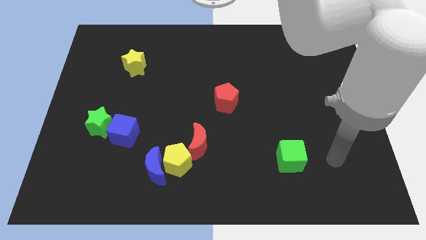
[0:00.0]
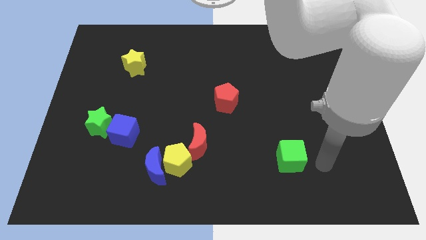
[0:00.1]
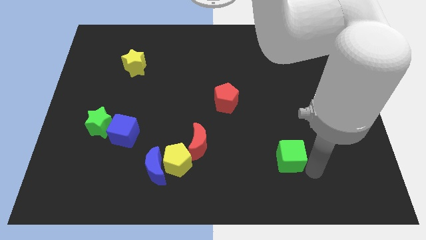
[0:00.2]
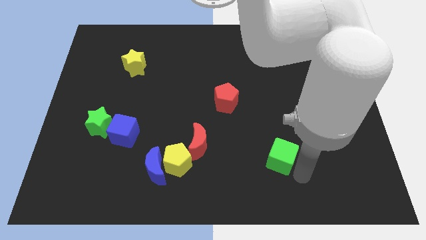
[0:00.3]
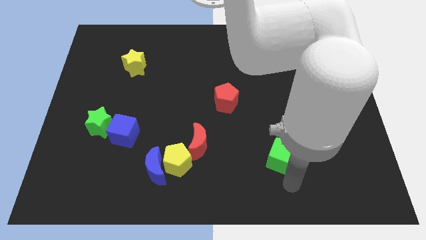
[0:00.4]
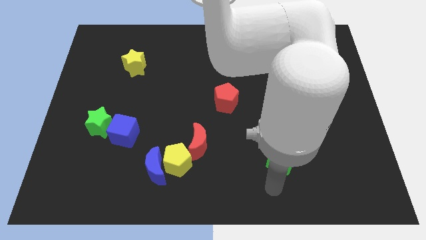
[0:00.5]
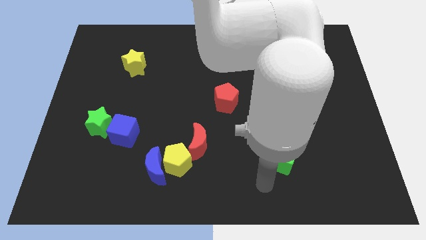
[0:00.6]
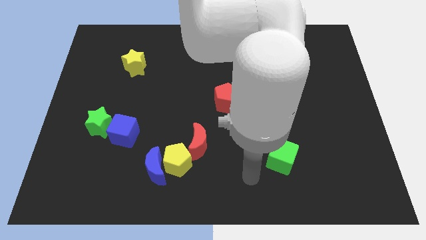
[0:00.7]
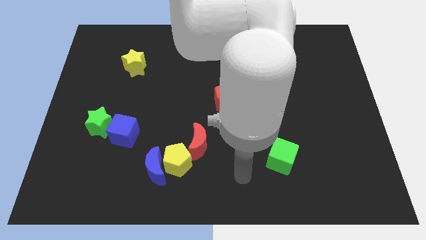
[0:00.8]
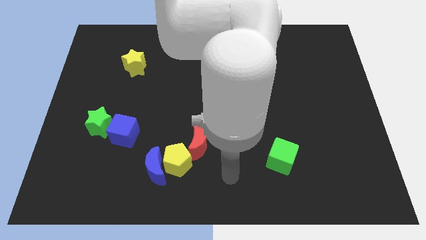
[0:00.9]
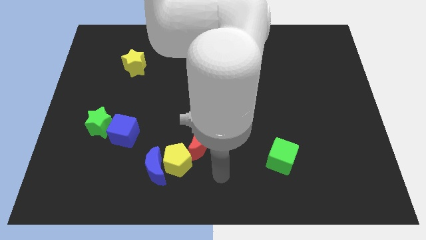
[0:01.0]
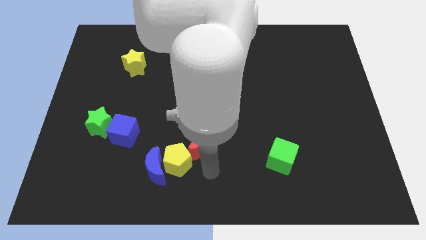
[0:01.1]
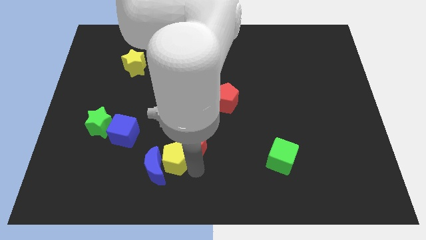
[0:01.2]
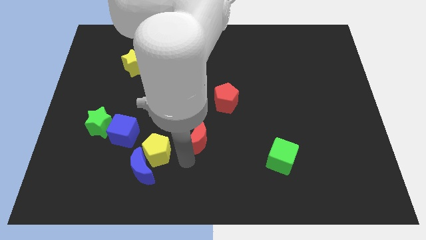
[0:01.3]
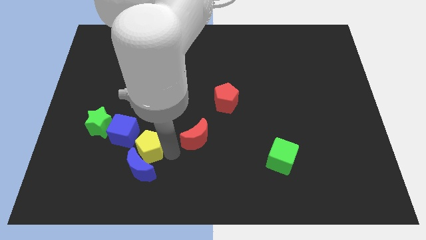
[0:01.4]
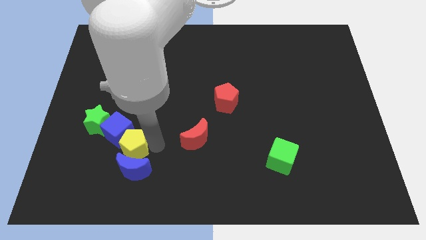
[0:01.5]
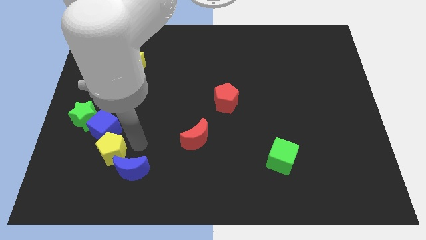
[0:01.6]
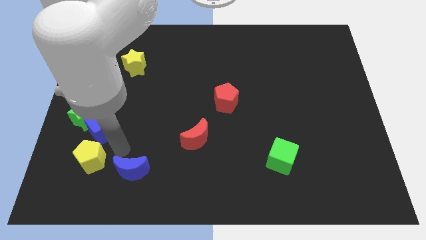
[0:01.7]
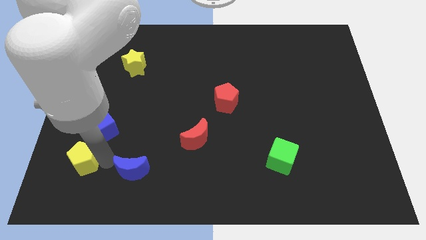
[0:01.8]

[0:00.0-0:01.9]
pull the blue moon apart from the yellow pentagon

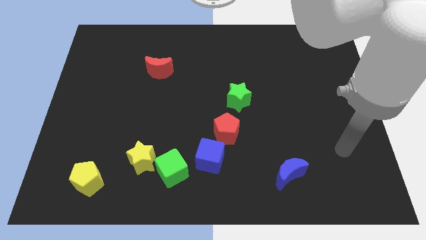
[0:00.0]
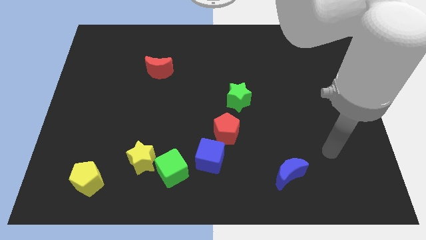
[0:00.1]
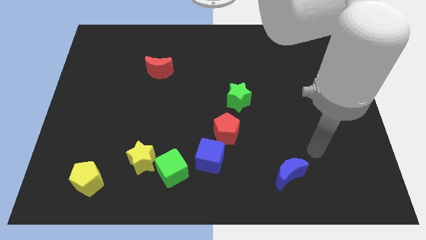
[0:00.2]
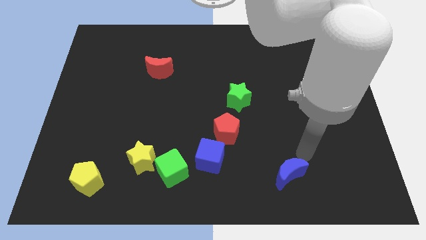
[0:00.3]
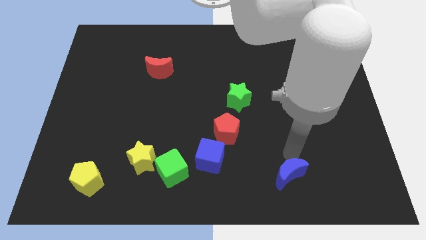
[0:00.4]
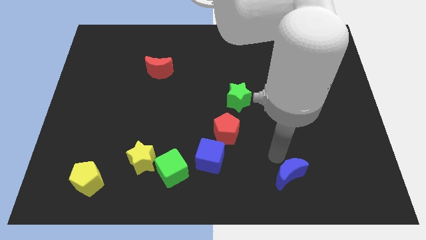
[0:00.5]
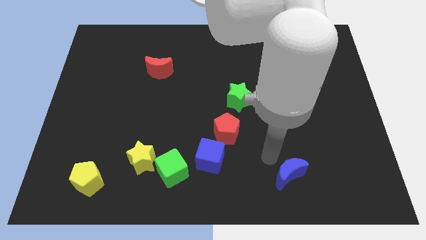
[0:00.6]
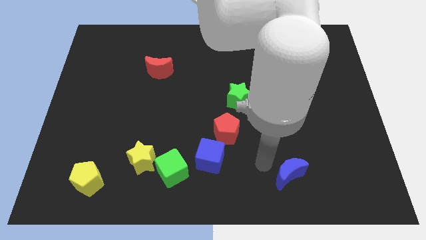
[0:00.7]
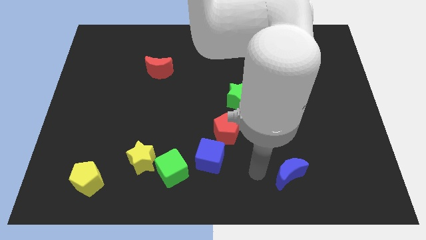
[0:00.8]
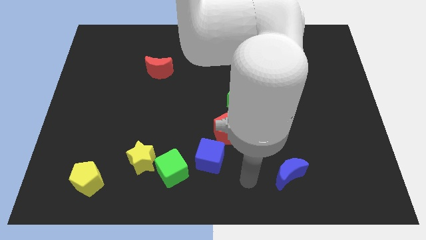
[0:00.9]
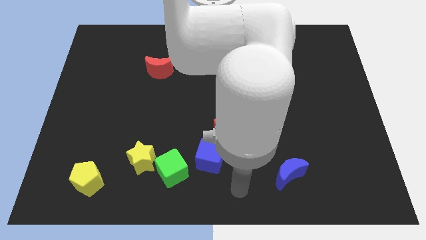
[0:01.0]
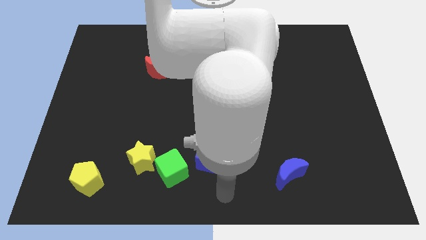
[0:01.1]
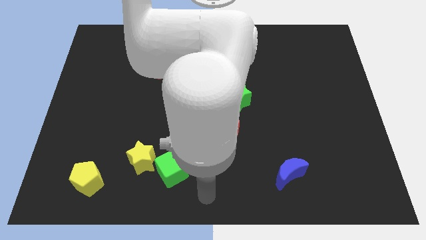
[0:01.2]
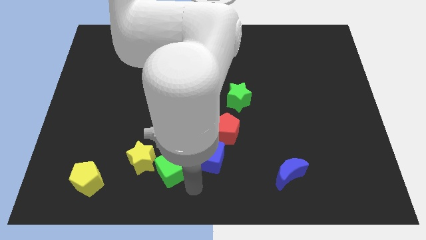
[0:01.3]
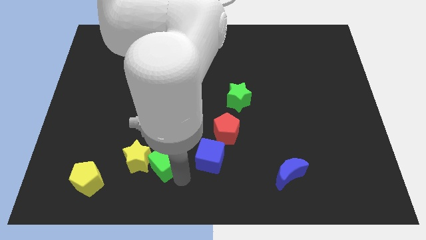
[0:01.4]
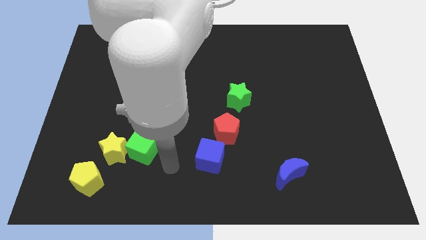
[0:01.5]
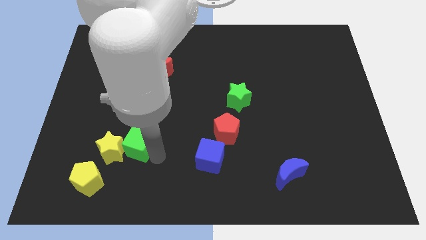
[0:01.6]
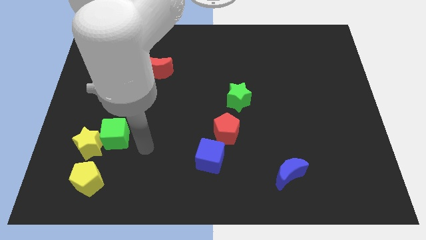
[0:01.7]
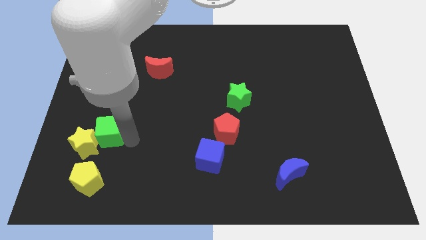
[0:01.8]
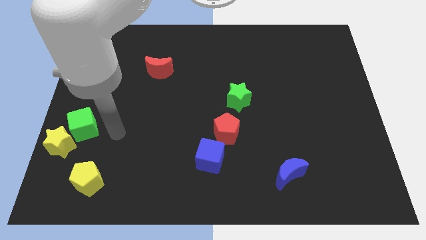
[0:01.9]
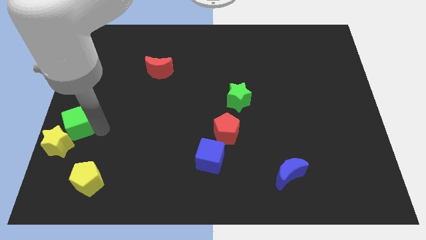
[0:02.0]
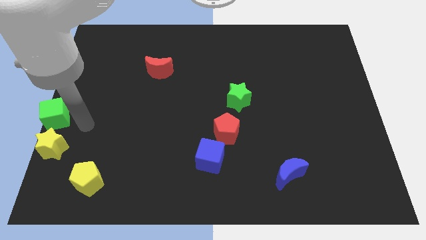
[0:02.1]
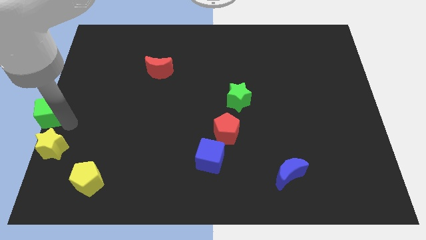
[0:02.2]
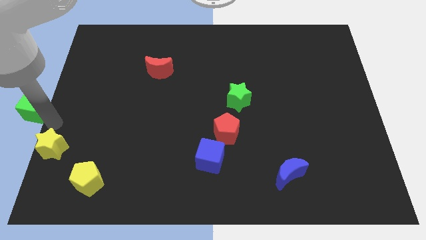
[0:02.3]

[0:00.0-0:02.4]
pull the yellow star apart from the green cube

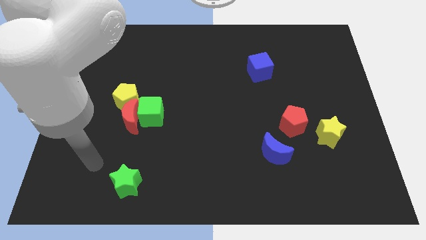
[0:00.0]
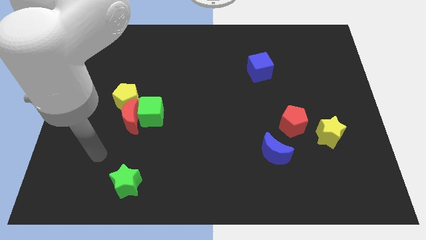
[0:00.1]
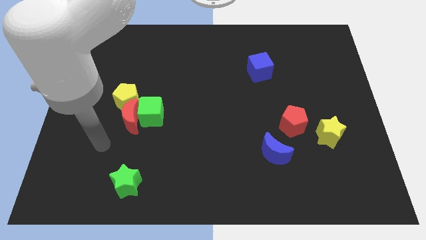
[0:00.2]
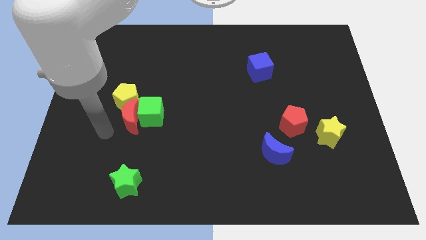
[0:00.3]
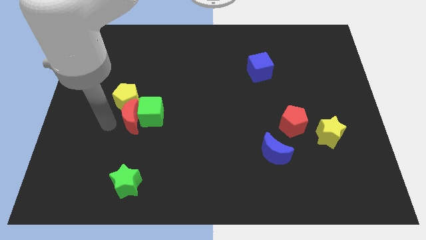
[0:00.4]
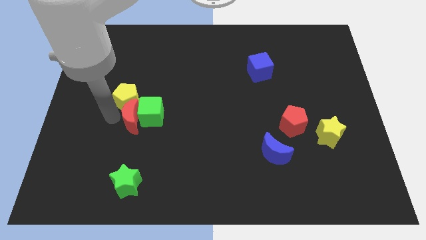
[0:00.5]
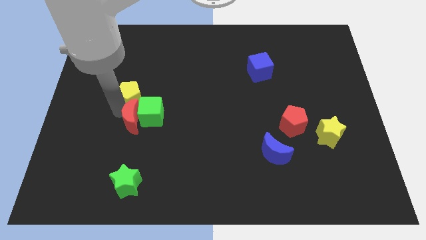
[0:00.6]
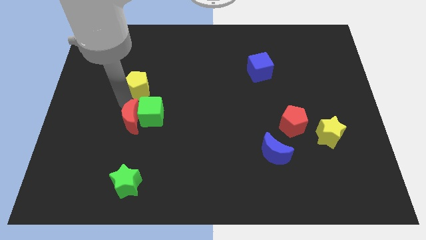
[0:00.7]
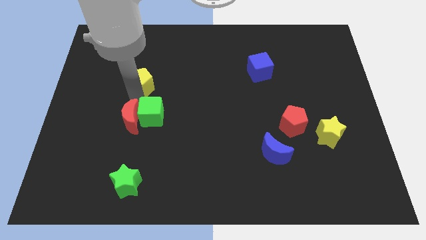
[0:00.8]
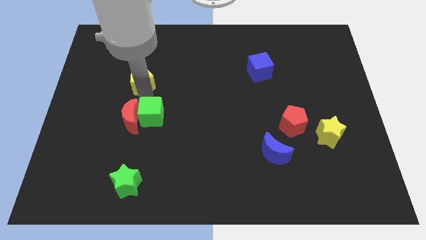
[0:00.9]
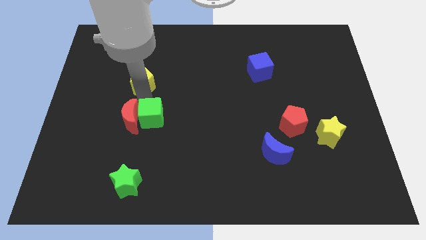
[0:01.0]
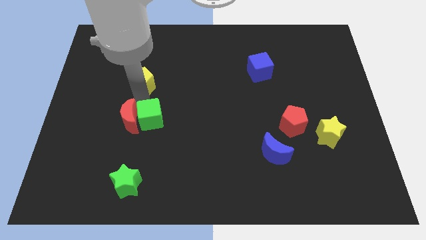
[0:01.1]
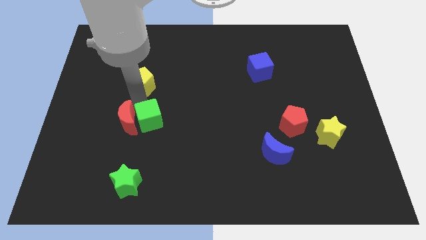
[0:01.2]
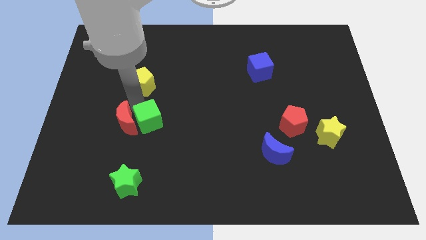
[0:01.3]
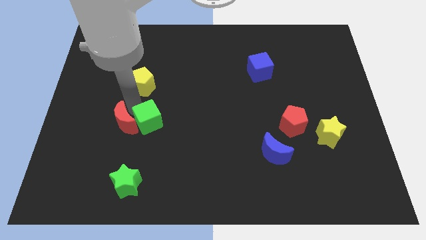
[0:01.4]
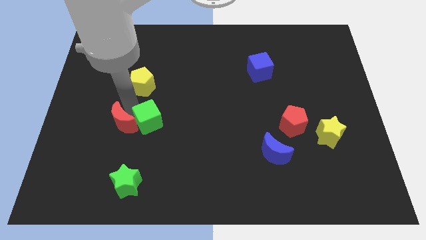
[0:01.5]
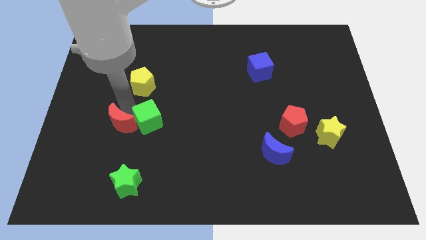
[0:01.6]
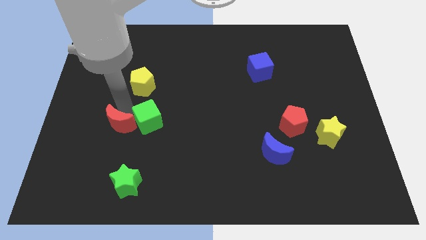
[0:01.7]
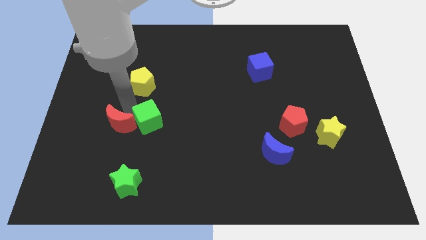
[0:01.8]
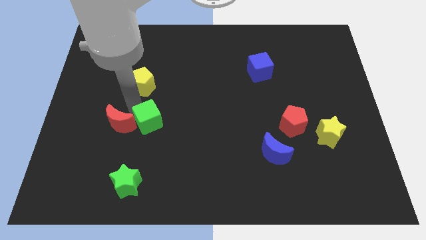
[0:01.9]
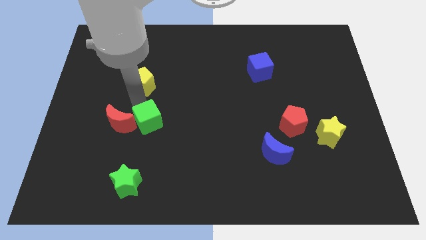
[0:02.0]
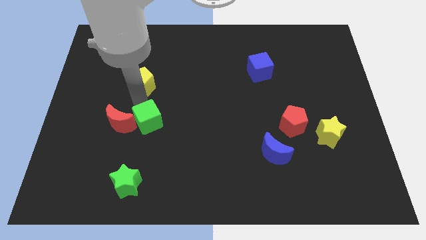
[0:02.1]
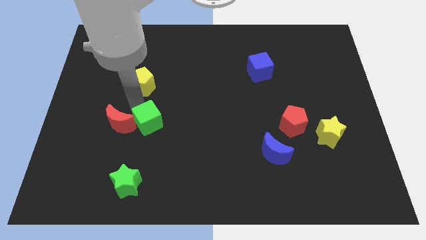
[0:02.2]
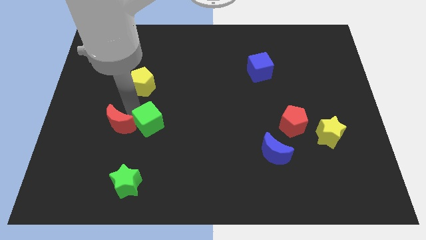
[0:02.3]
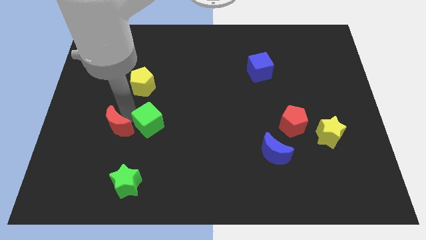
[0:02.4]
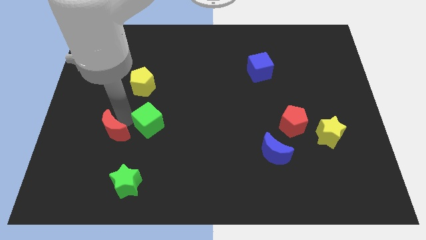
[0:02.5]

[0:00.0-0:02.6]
pull the red moon apart from the green cube and yellow pentagon

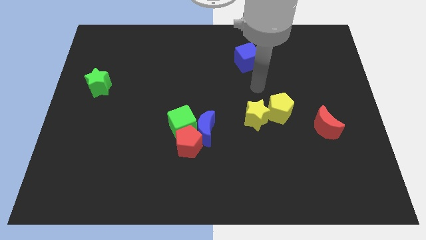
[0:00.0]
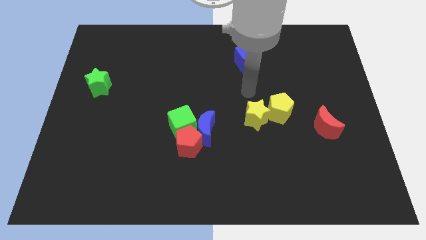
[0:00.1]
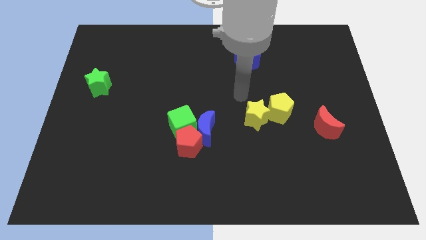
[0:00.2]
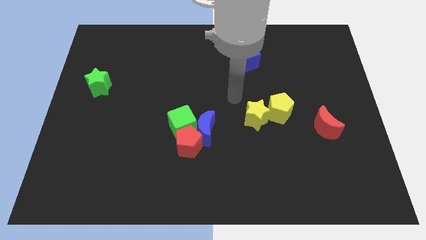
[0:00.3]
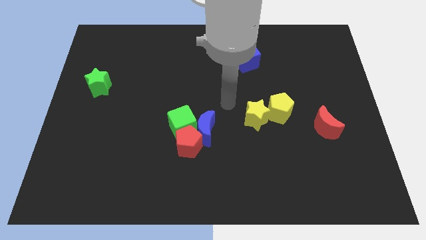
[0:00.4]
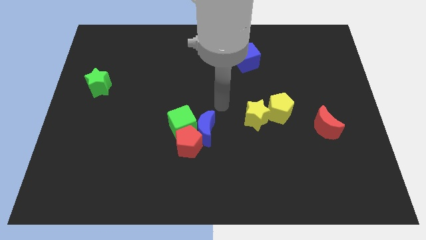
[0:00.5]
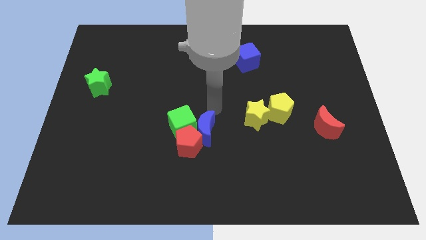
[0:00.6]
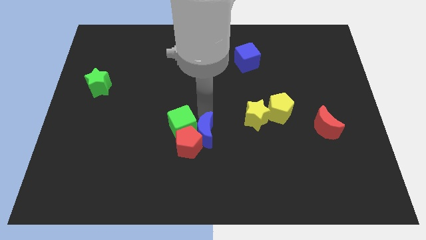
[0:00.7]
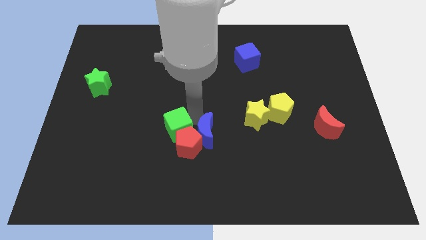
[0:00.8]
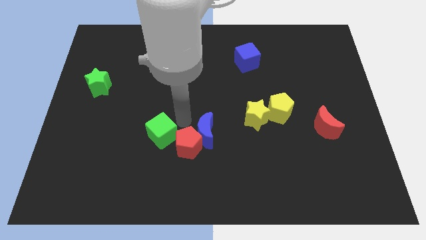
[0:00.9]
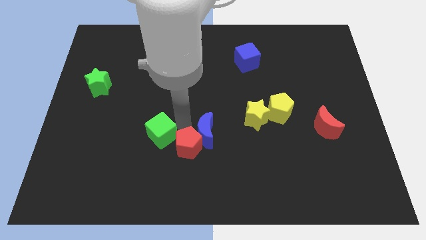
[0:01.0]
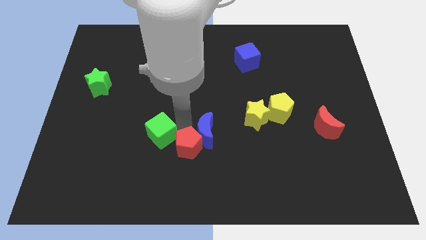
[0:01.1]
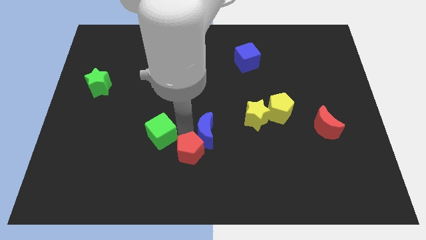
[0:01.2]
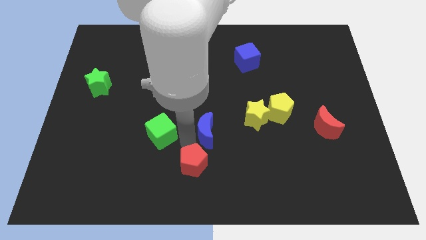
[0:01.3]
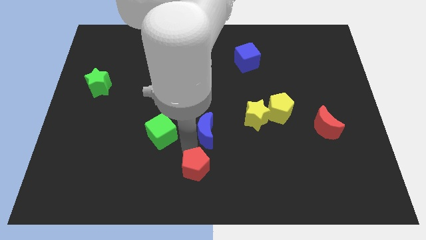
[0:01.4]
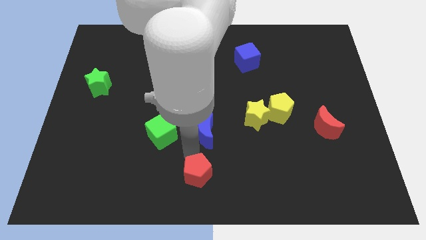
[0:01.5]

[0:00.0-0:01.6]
move the red pentagon away from the blue moon and green cube

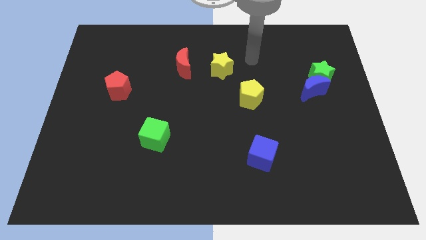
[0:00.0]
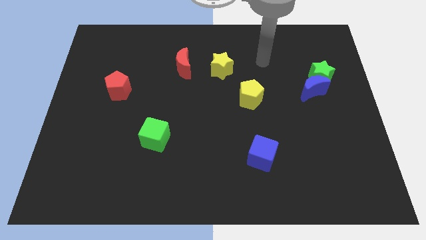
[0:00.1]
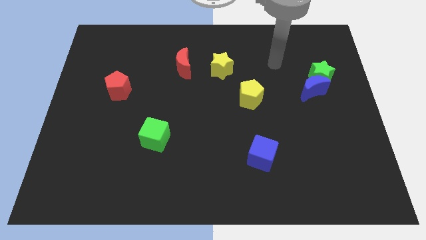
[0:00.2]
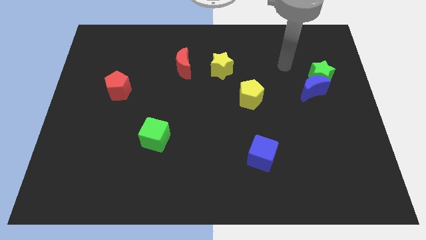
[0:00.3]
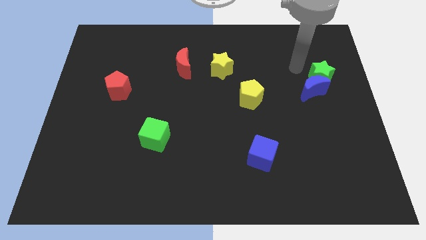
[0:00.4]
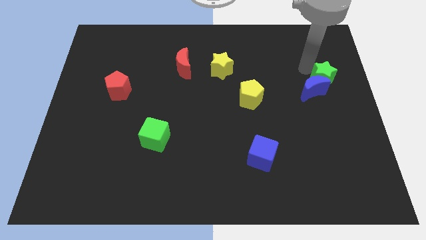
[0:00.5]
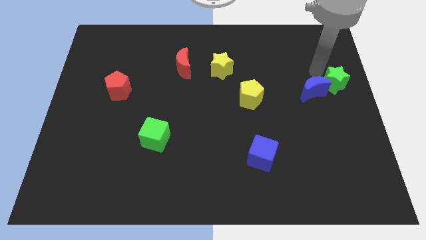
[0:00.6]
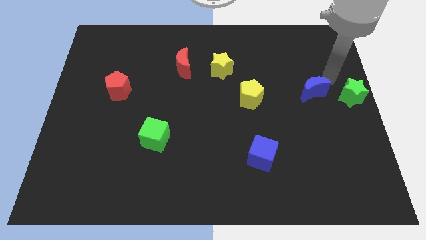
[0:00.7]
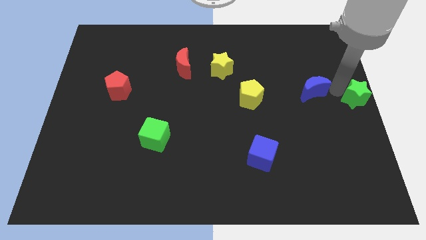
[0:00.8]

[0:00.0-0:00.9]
move the blue moon away from the green star
